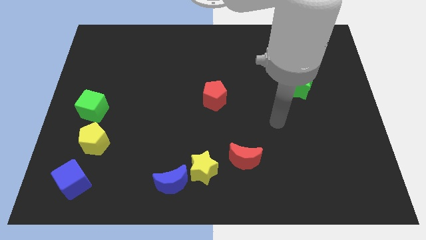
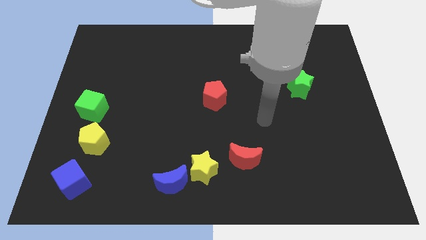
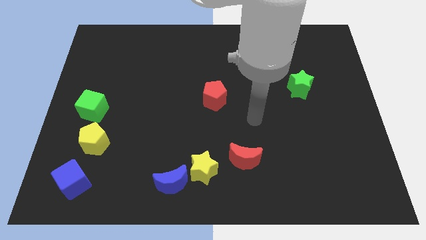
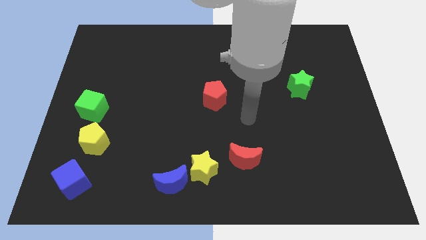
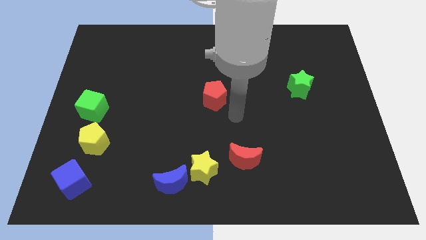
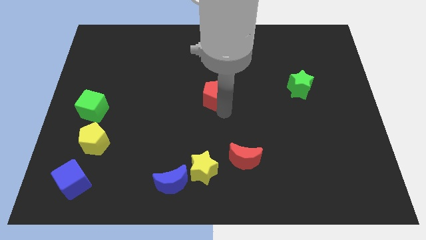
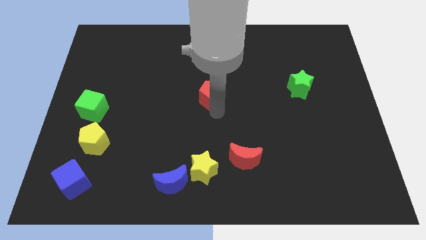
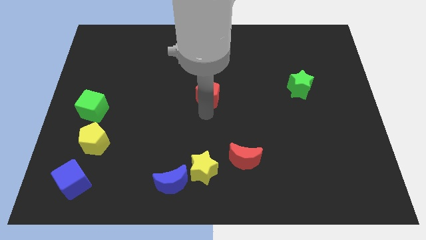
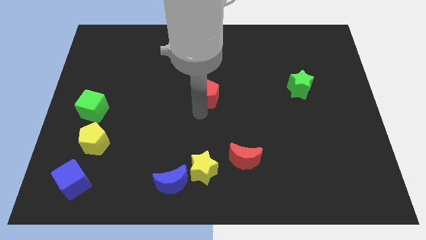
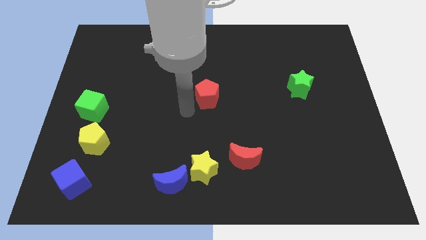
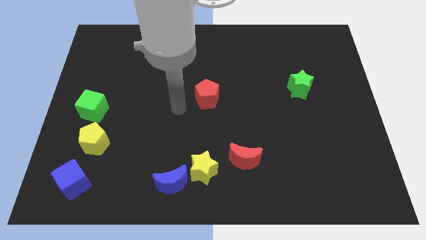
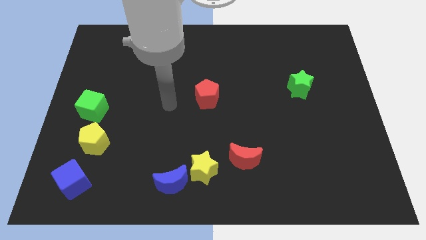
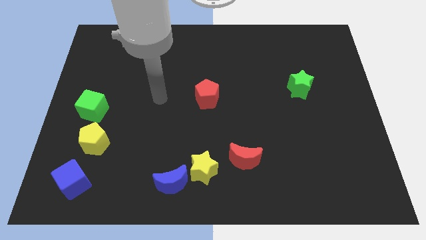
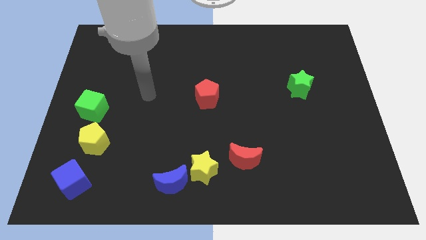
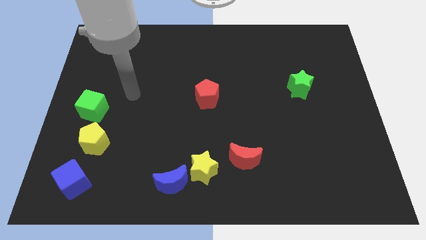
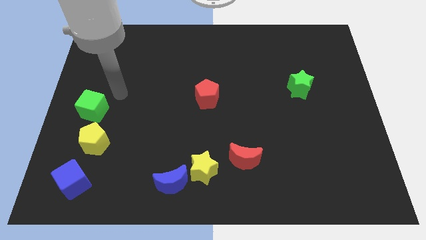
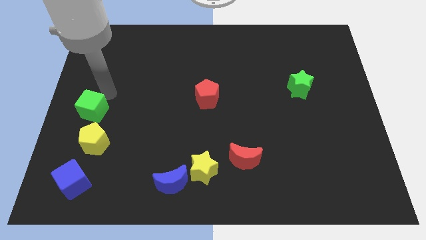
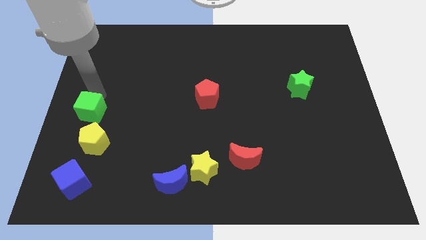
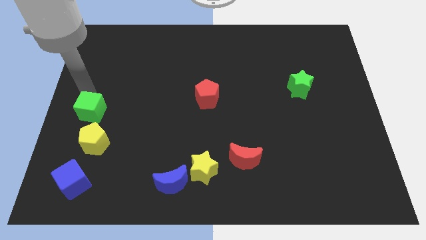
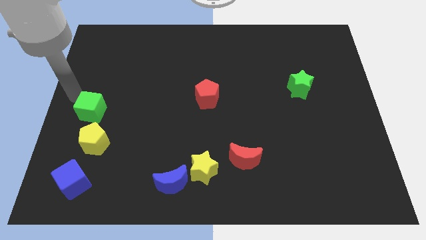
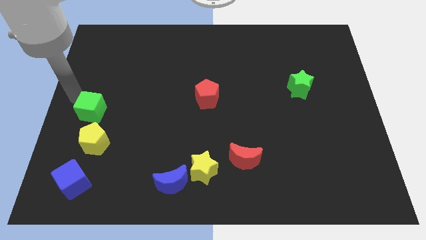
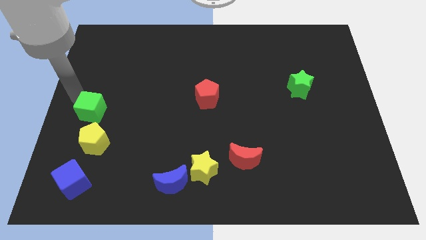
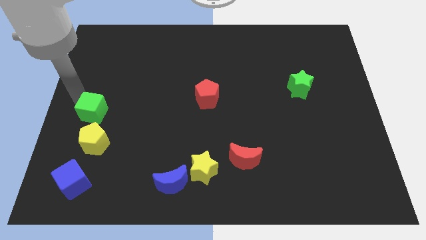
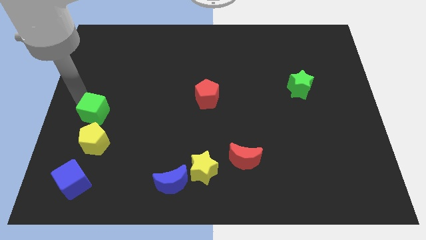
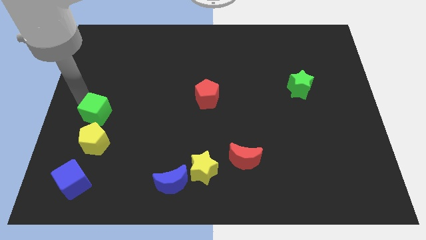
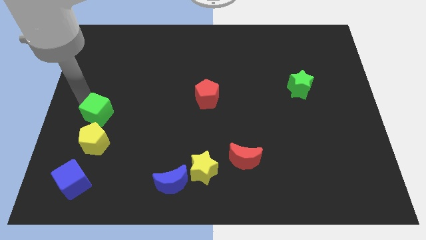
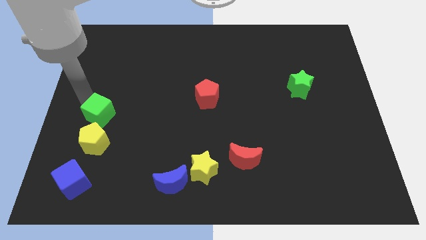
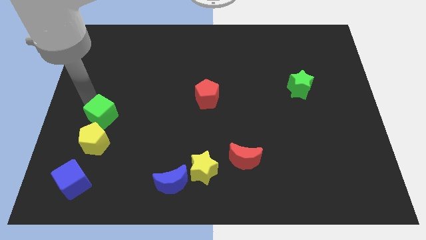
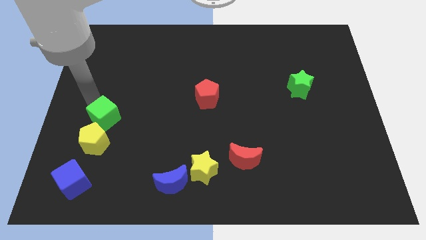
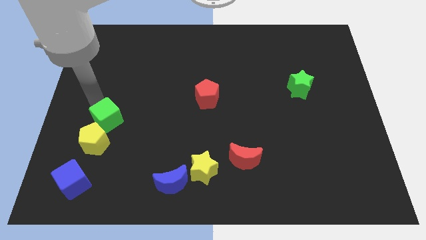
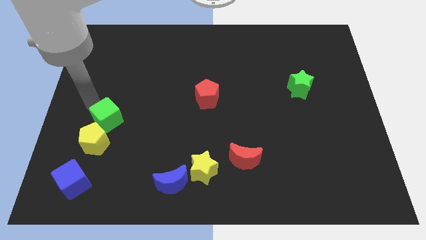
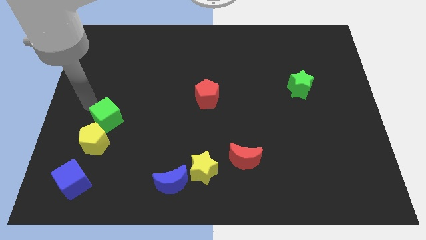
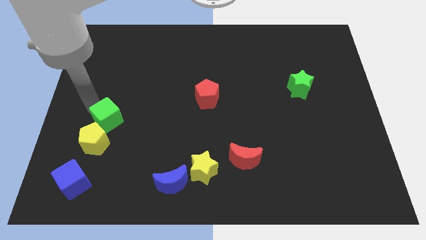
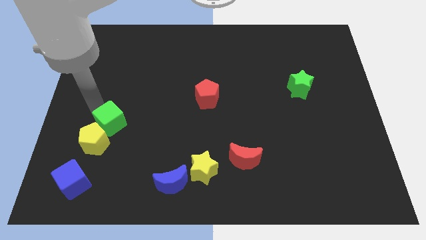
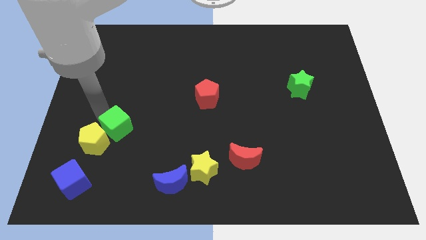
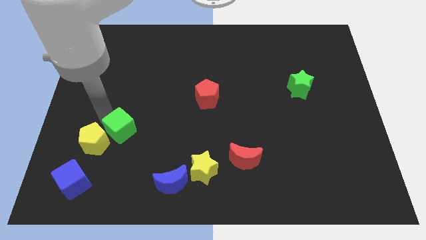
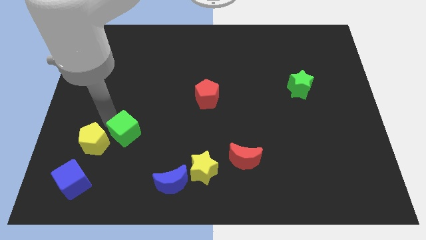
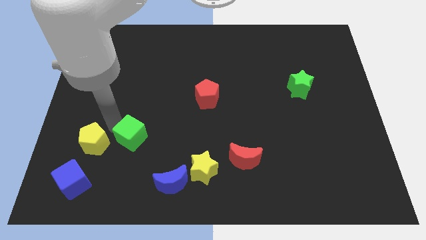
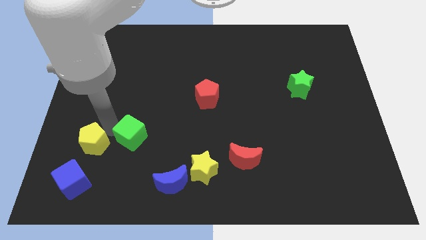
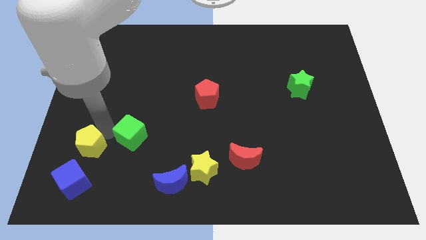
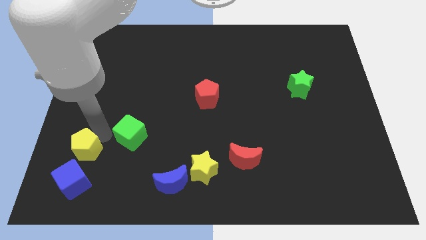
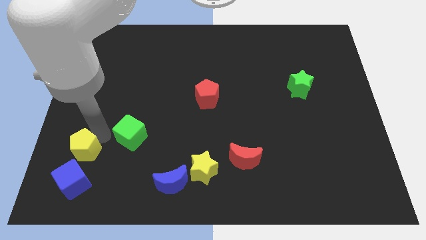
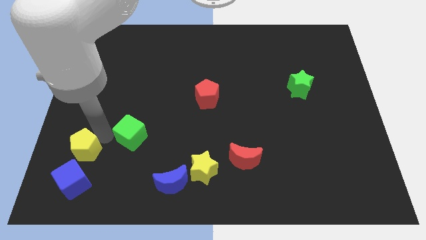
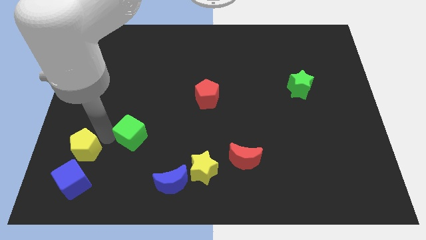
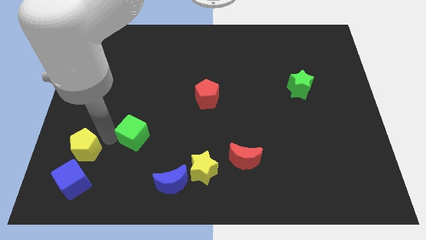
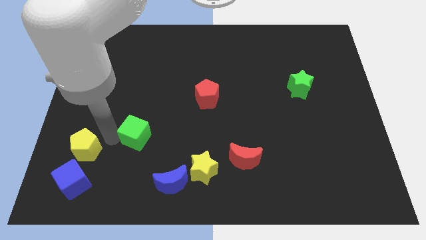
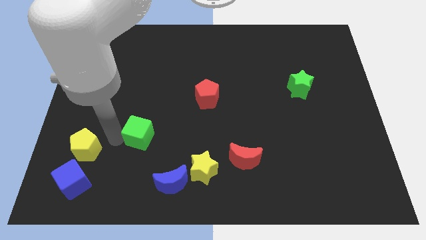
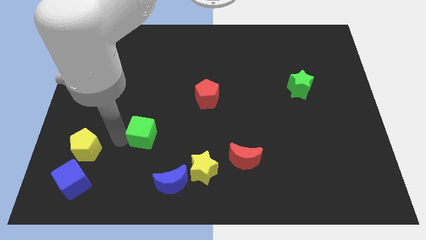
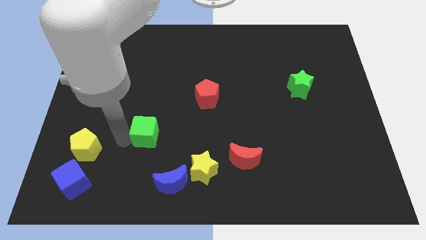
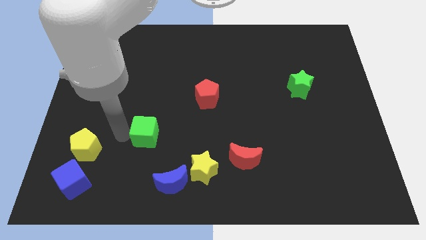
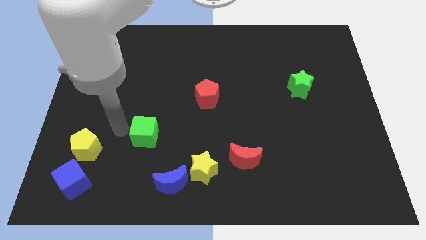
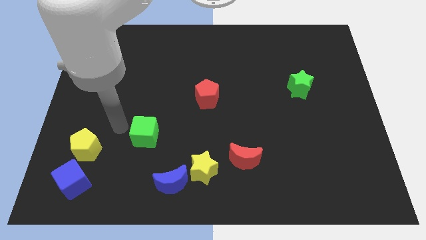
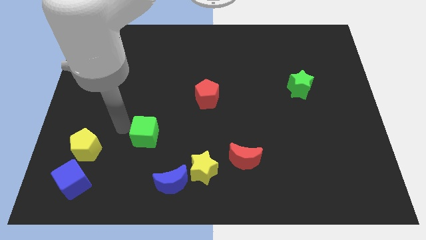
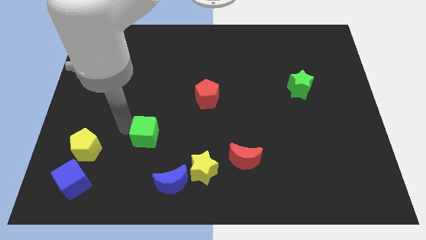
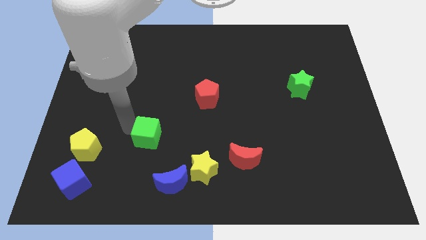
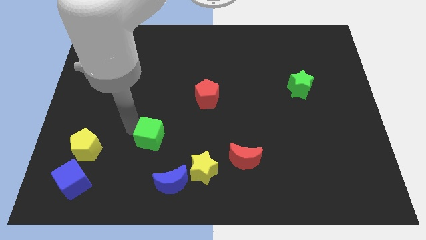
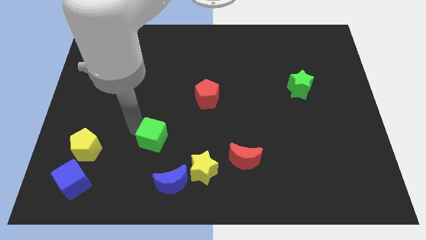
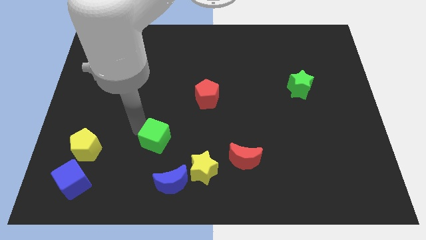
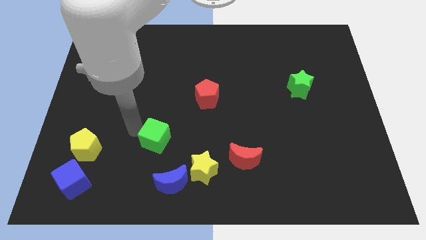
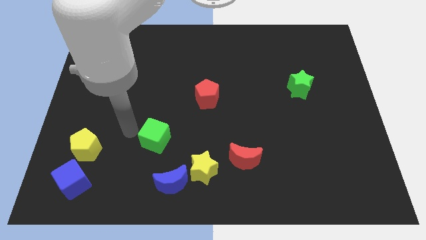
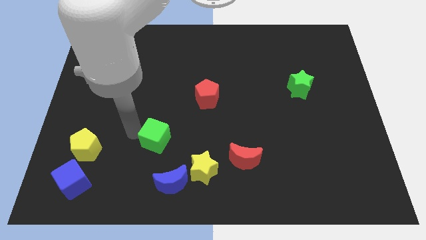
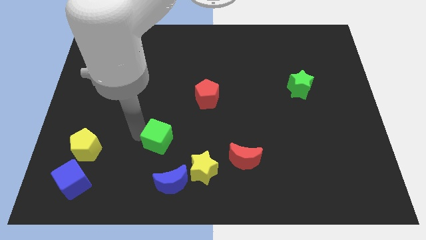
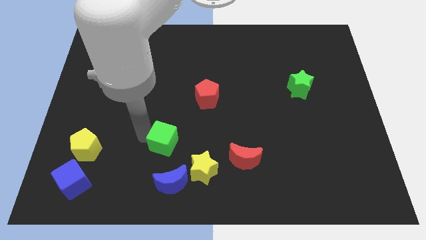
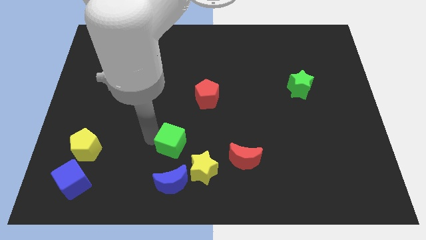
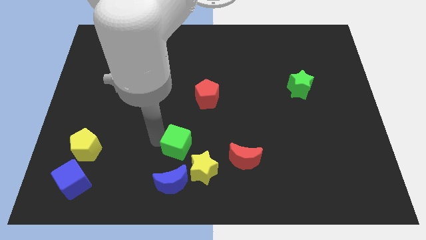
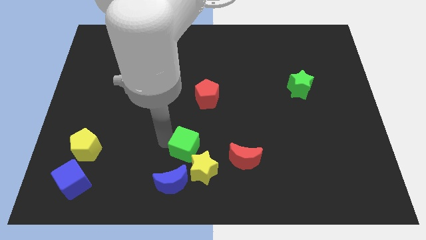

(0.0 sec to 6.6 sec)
move the green cube to the top right of the blue moon

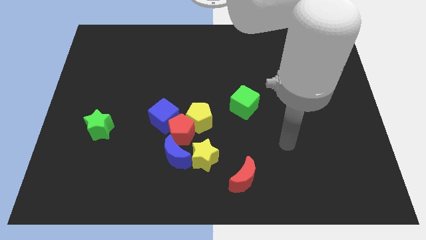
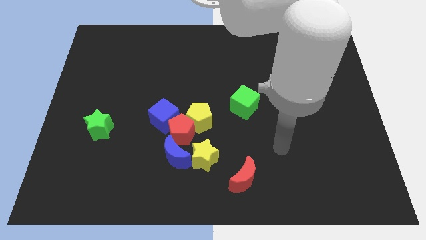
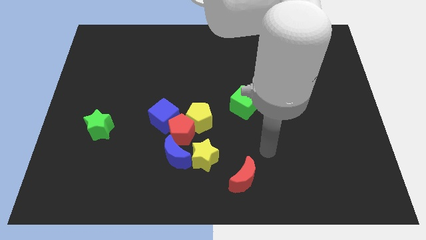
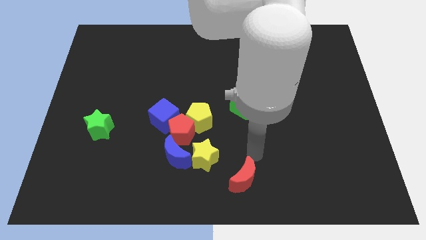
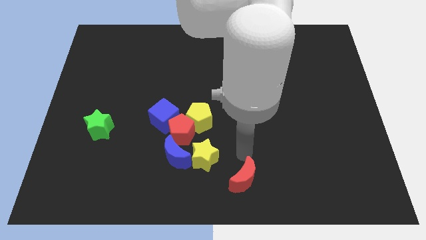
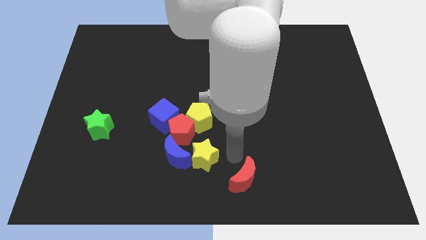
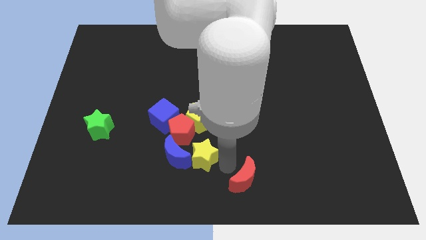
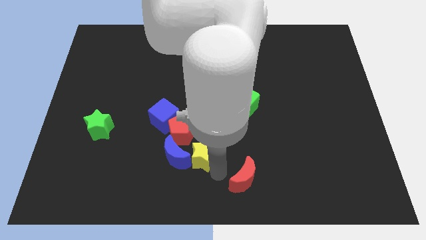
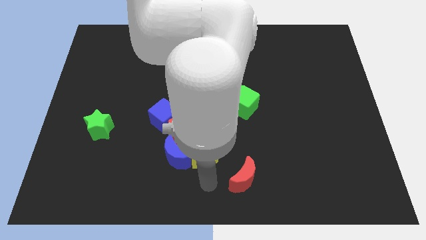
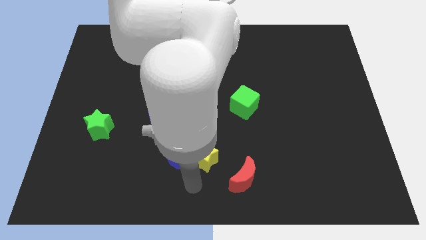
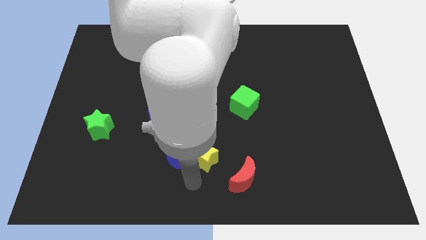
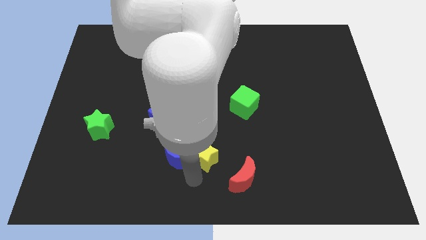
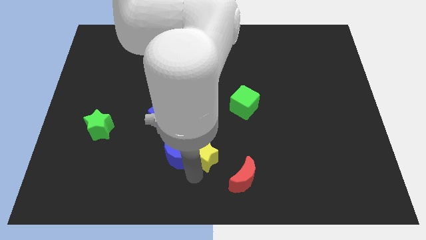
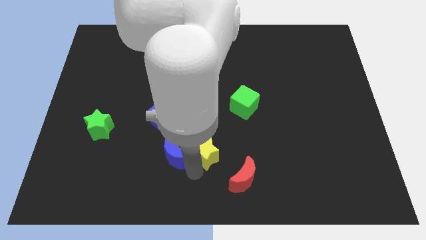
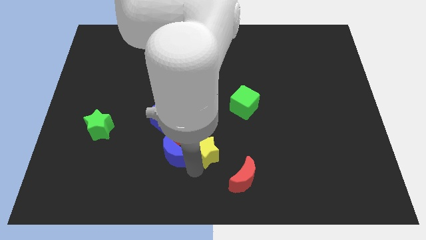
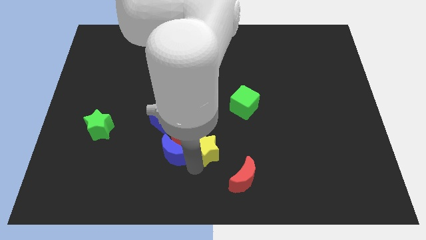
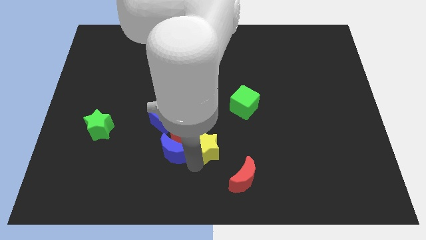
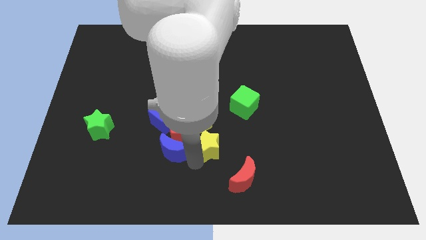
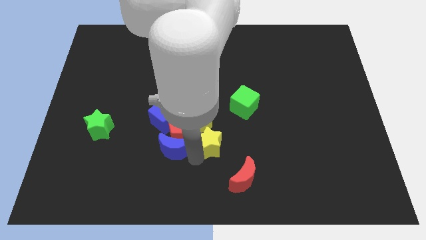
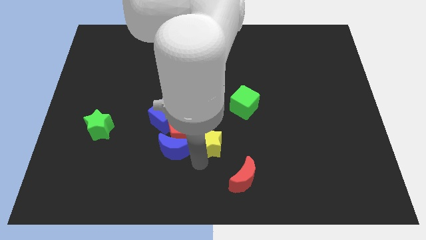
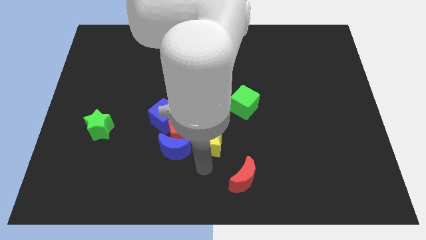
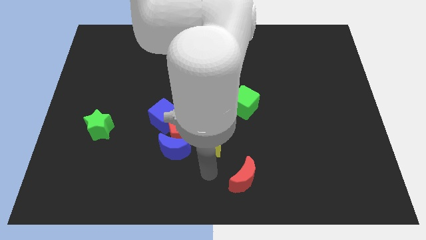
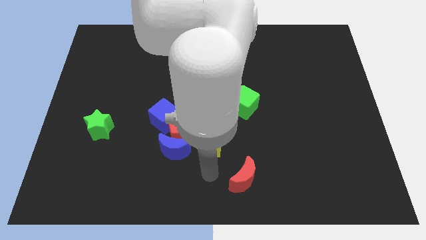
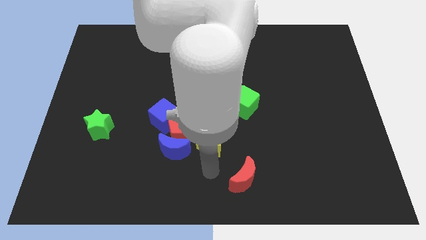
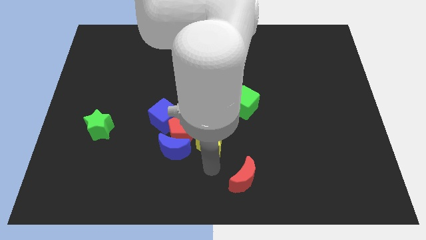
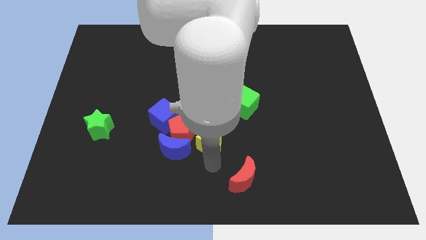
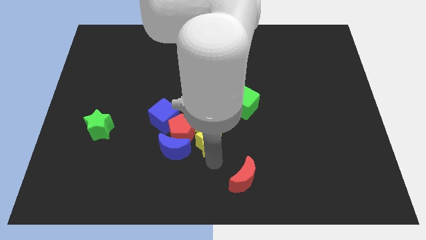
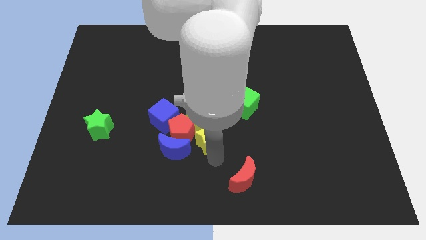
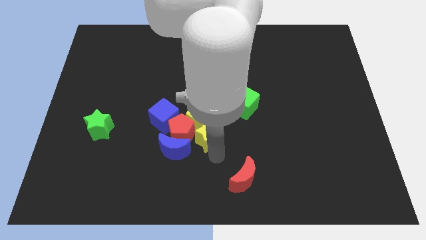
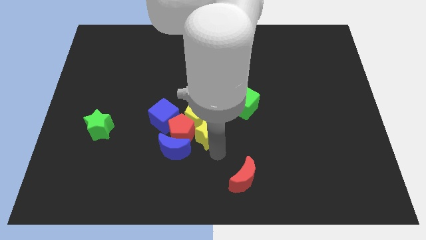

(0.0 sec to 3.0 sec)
slide the yellow star to the right of the blue cube
